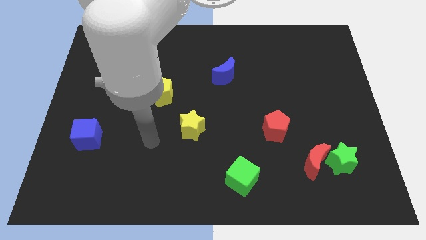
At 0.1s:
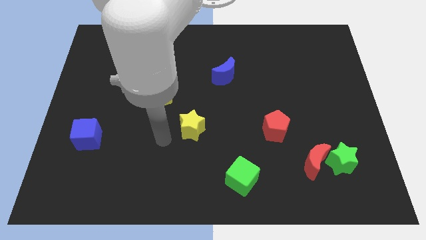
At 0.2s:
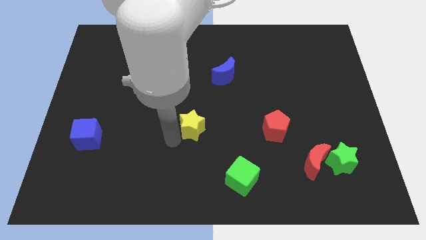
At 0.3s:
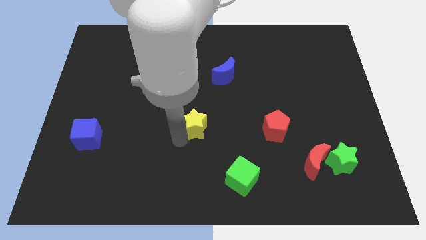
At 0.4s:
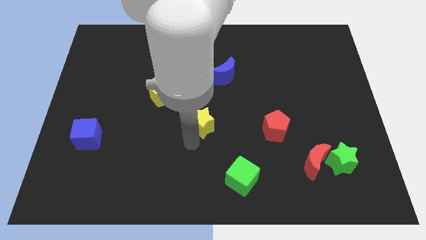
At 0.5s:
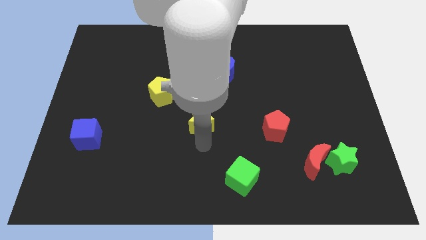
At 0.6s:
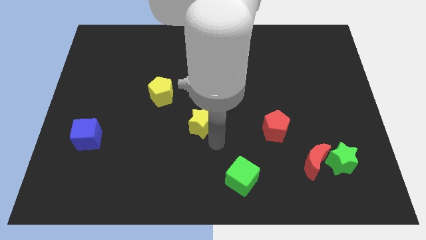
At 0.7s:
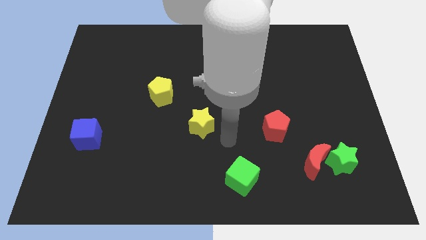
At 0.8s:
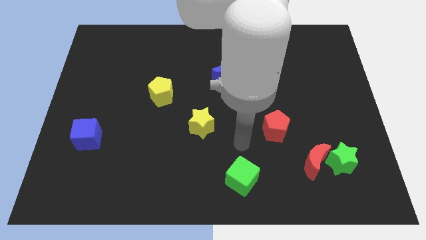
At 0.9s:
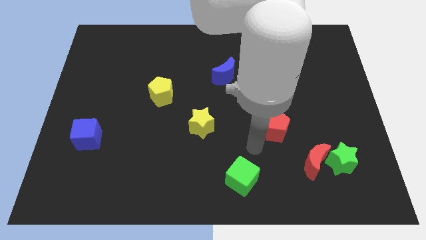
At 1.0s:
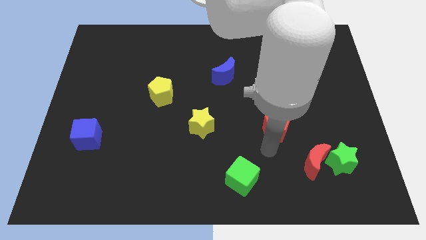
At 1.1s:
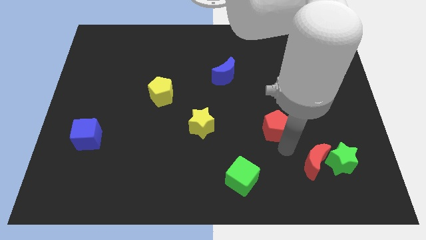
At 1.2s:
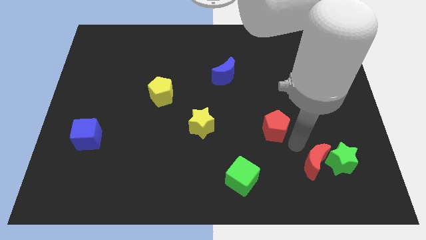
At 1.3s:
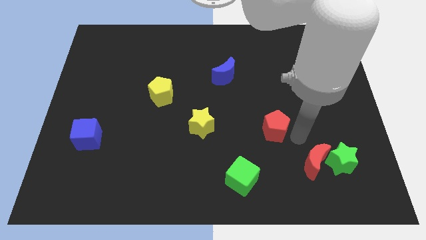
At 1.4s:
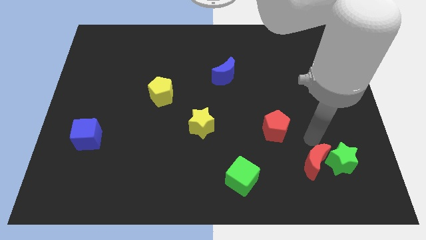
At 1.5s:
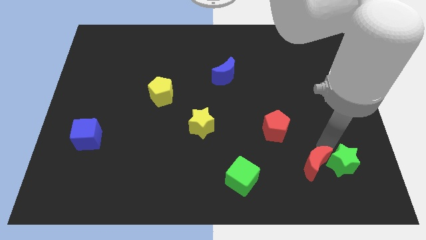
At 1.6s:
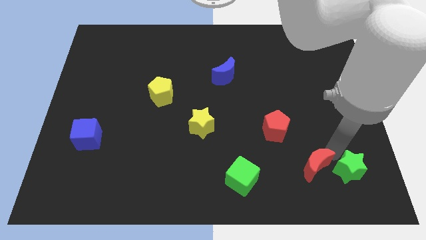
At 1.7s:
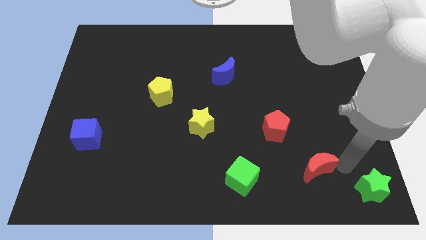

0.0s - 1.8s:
pull the red moon apart from the green star

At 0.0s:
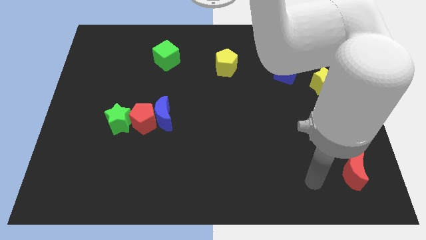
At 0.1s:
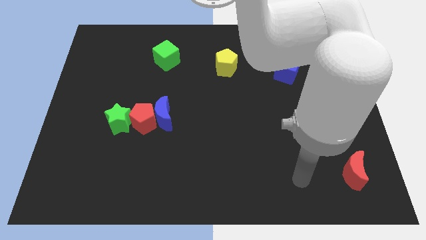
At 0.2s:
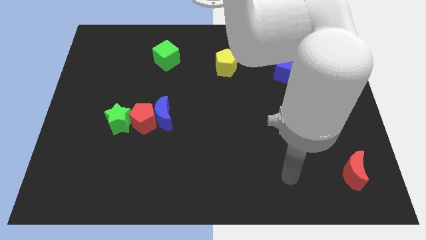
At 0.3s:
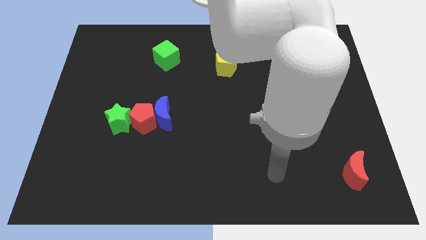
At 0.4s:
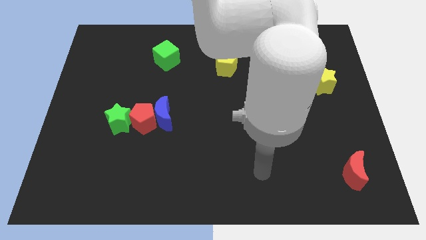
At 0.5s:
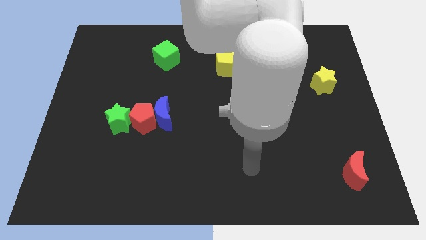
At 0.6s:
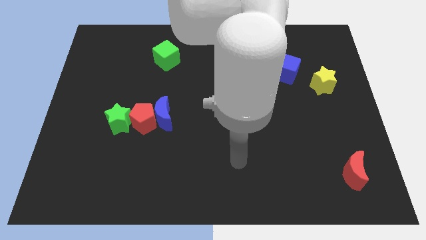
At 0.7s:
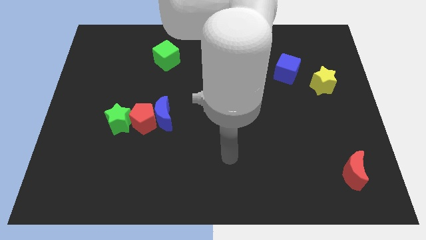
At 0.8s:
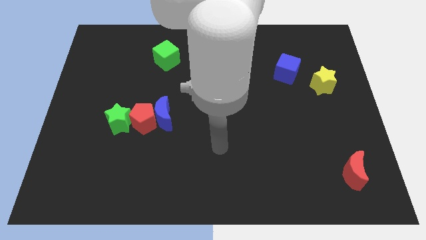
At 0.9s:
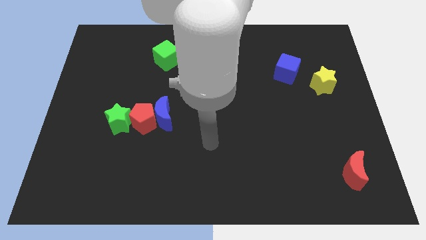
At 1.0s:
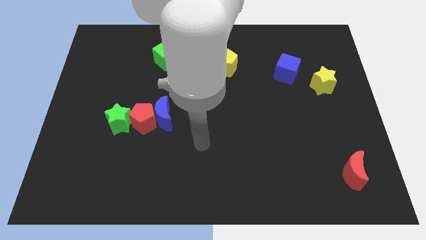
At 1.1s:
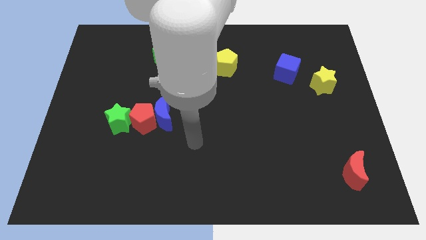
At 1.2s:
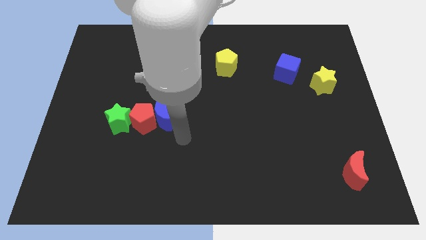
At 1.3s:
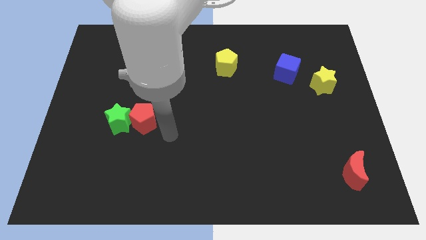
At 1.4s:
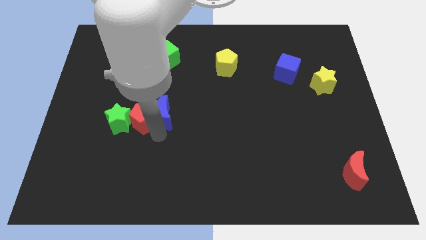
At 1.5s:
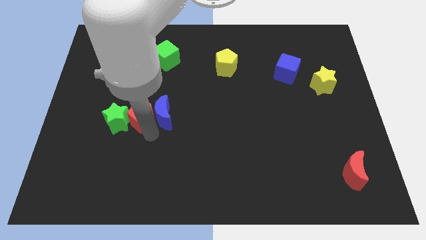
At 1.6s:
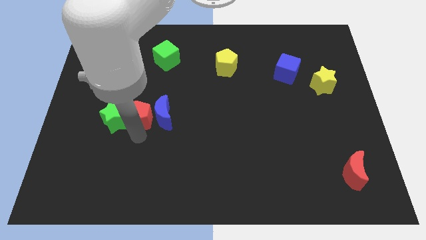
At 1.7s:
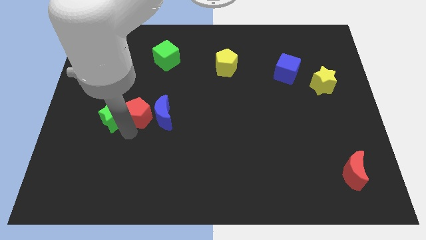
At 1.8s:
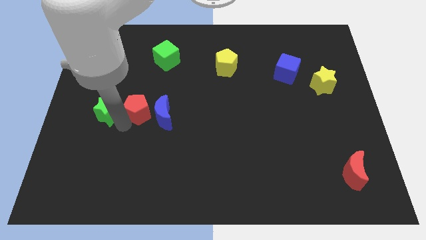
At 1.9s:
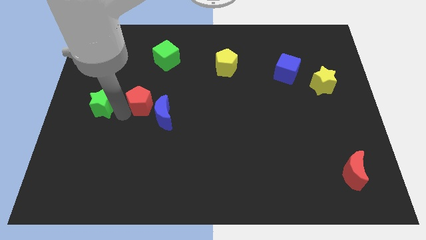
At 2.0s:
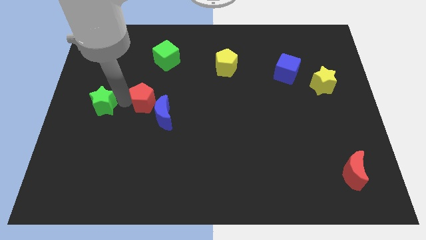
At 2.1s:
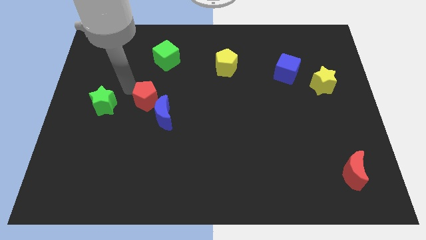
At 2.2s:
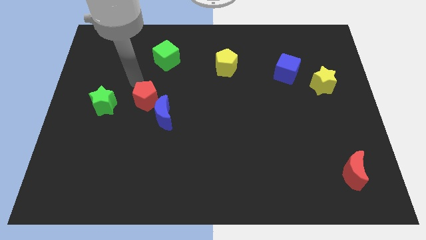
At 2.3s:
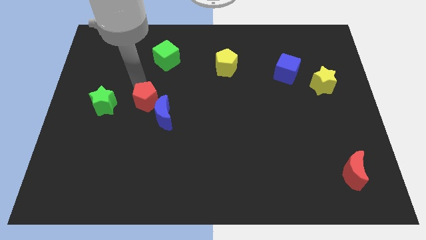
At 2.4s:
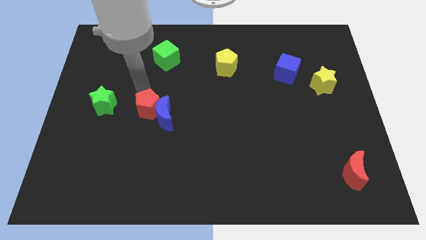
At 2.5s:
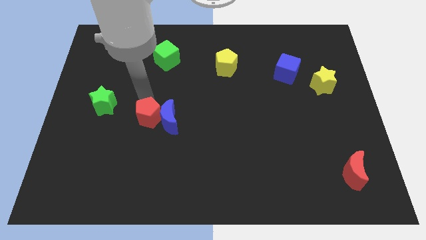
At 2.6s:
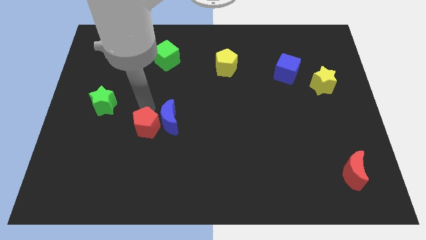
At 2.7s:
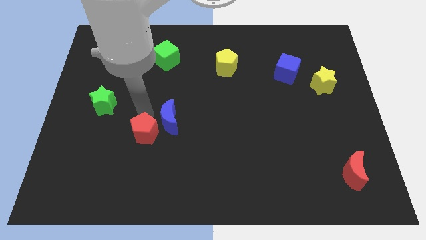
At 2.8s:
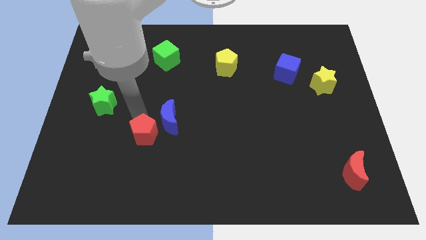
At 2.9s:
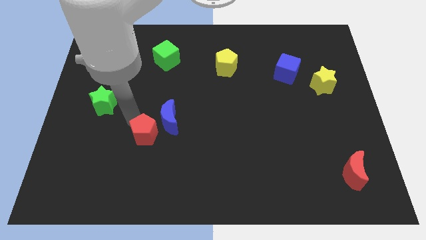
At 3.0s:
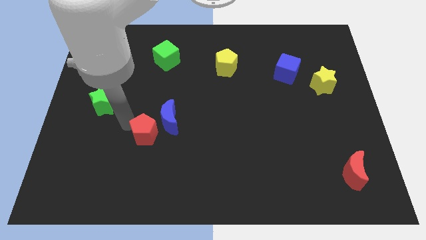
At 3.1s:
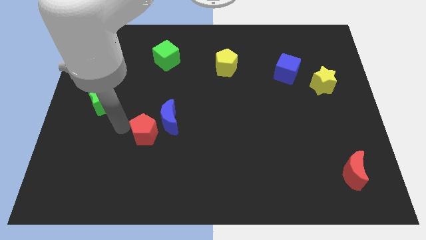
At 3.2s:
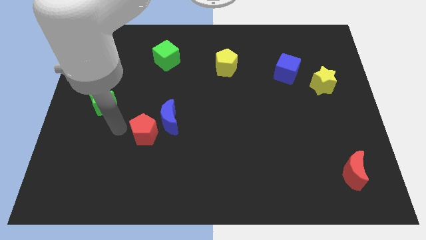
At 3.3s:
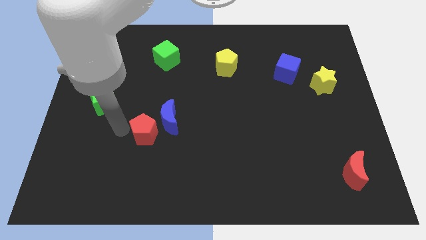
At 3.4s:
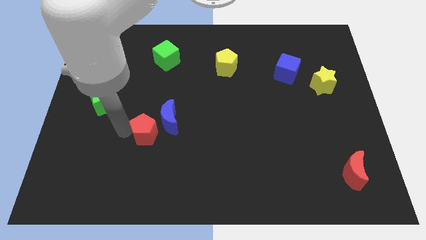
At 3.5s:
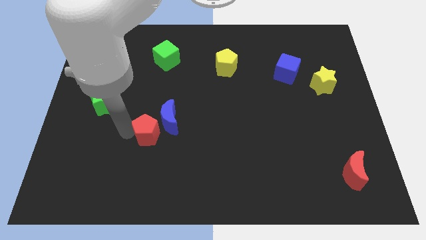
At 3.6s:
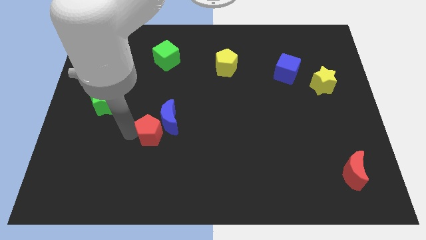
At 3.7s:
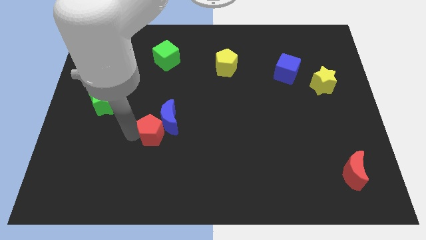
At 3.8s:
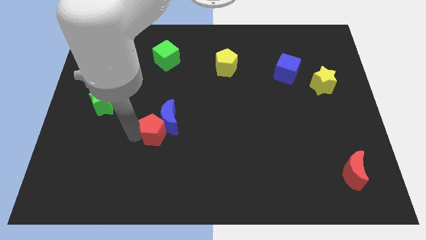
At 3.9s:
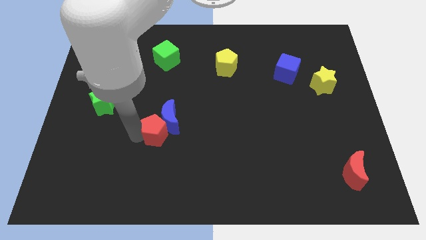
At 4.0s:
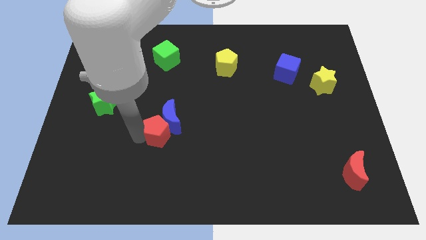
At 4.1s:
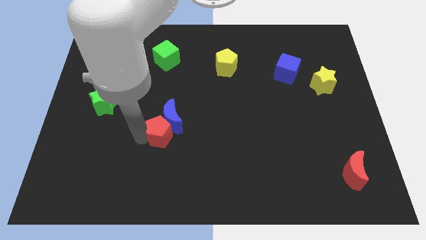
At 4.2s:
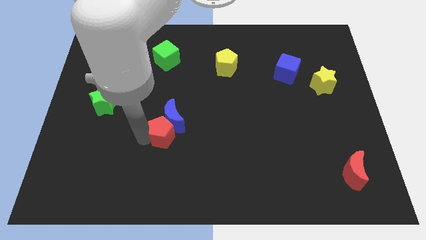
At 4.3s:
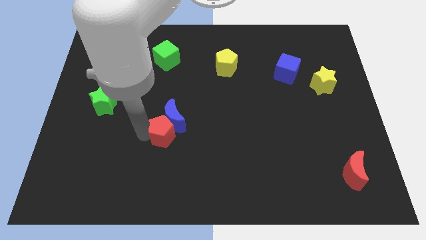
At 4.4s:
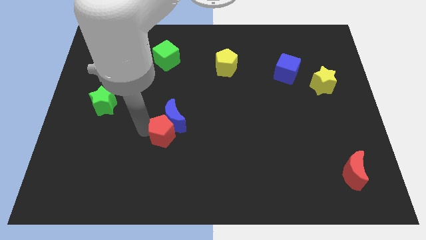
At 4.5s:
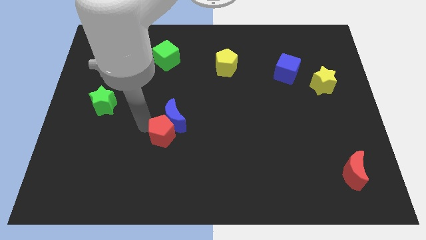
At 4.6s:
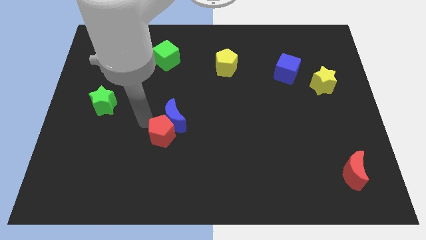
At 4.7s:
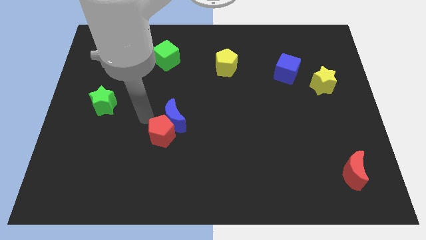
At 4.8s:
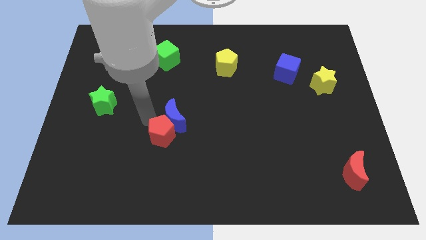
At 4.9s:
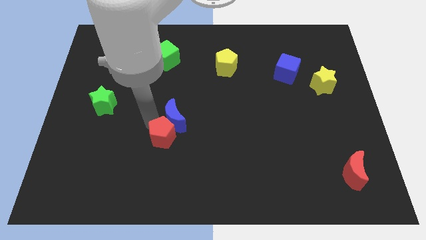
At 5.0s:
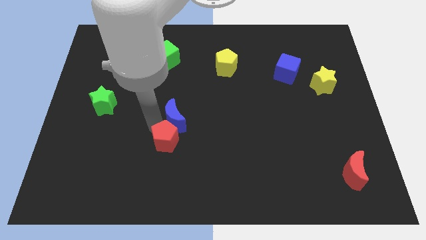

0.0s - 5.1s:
move the red pentagon away from the blue moon and green star

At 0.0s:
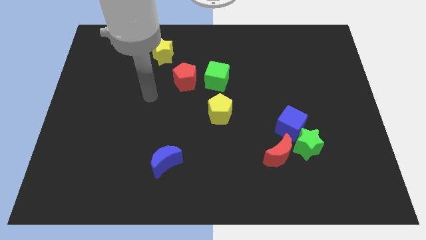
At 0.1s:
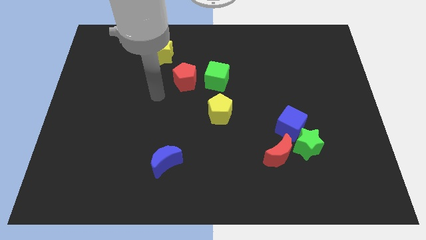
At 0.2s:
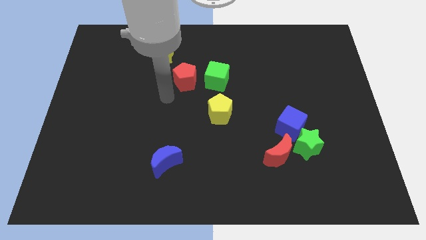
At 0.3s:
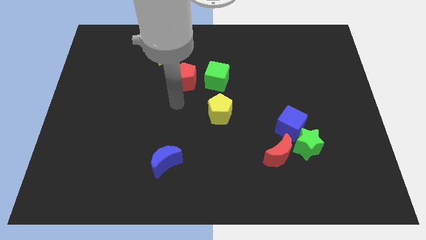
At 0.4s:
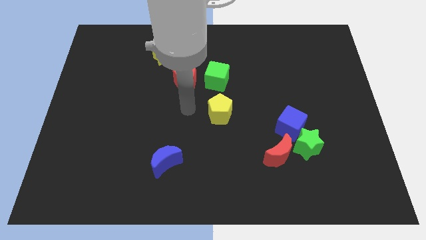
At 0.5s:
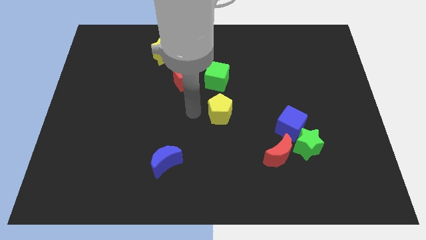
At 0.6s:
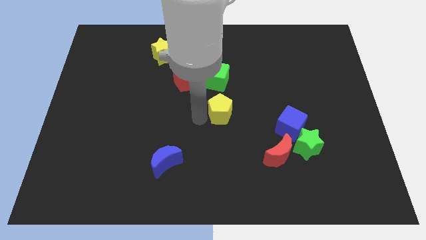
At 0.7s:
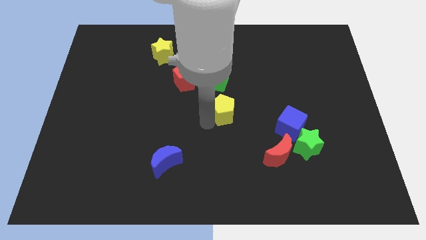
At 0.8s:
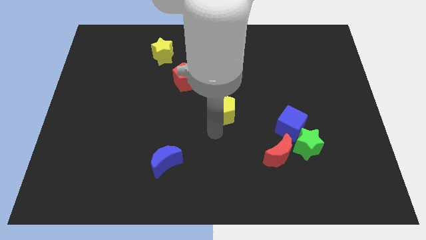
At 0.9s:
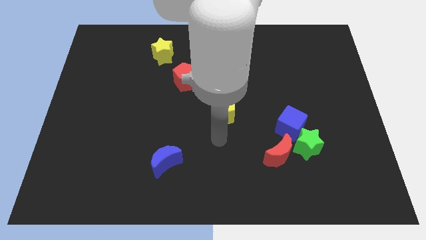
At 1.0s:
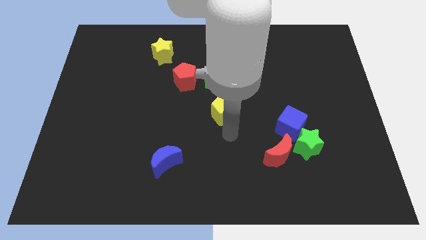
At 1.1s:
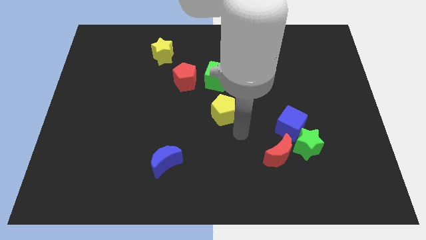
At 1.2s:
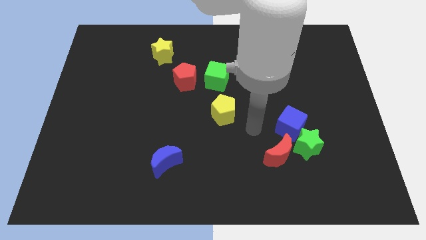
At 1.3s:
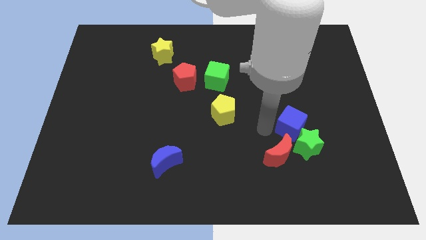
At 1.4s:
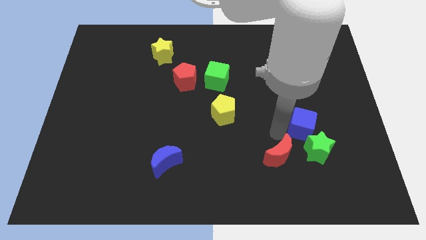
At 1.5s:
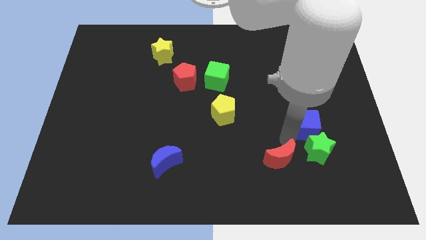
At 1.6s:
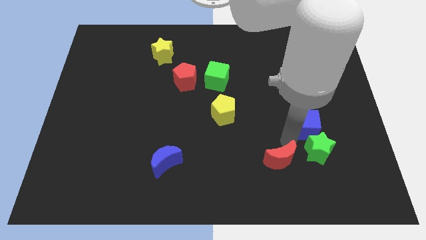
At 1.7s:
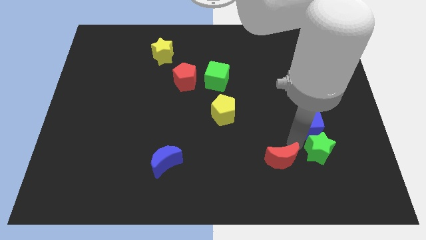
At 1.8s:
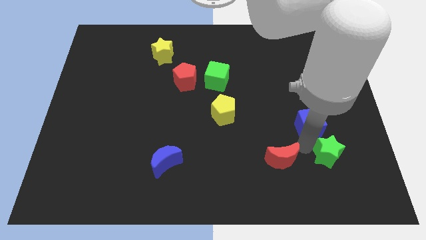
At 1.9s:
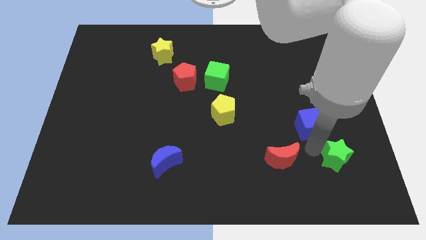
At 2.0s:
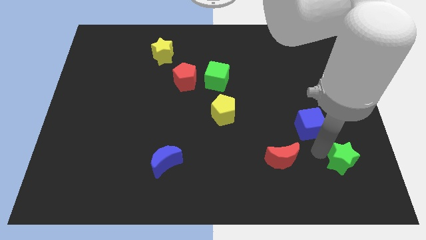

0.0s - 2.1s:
move the green star away from the blue cube and red moon

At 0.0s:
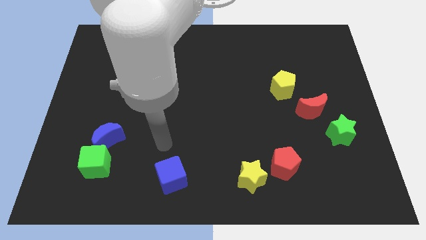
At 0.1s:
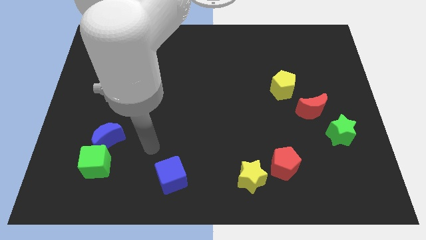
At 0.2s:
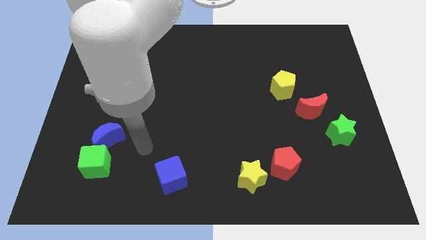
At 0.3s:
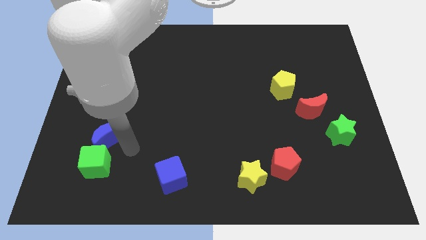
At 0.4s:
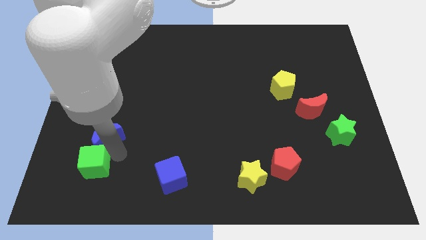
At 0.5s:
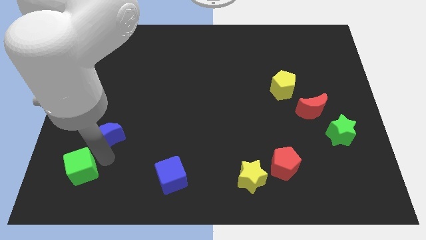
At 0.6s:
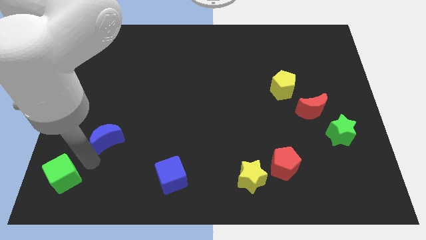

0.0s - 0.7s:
separate the blue moon from the green cube
